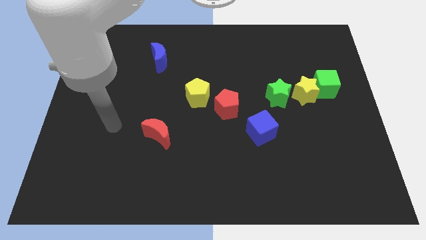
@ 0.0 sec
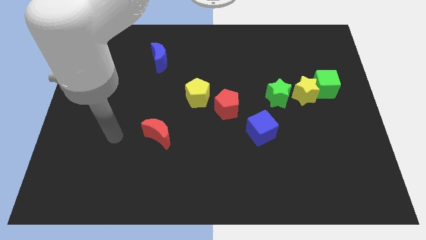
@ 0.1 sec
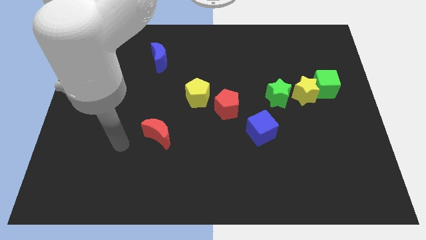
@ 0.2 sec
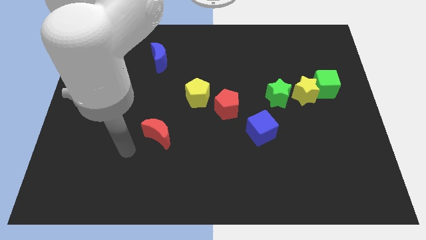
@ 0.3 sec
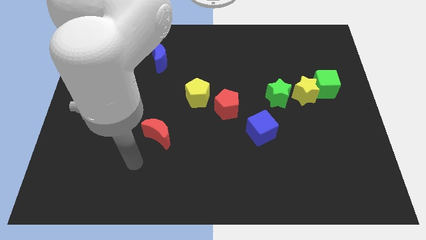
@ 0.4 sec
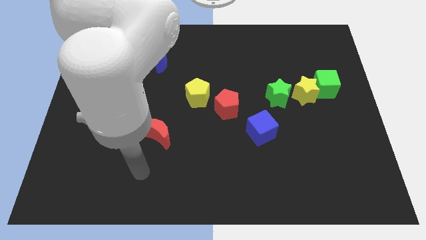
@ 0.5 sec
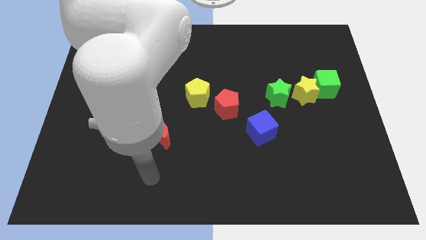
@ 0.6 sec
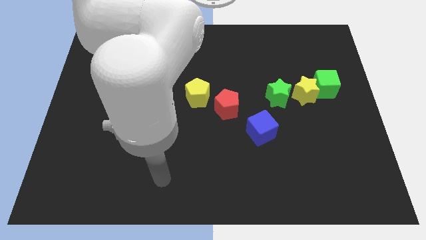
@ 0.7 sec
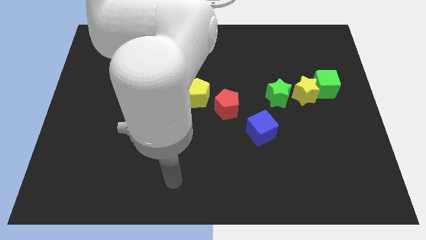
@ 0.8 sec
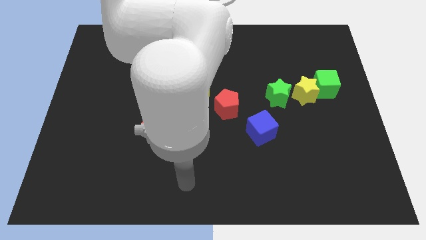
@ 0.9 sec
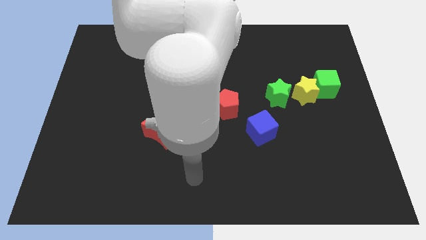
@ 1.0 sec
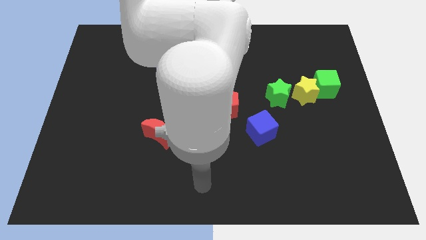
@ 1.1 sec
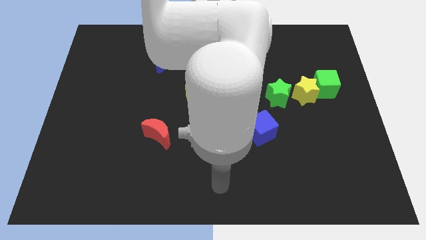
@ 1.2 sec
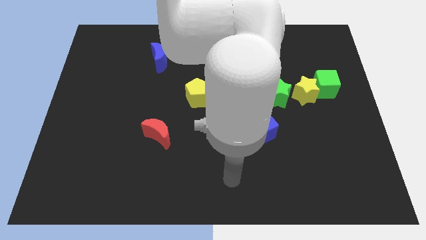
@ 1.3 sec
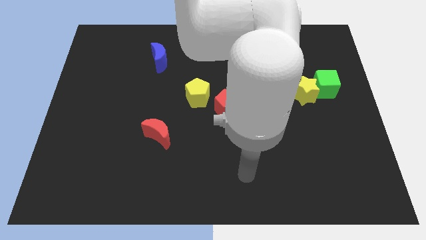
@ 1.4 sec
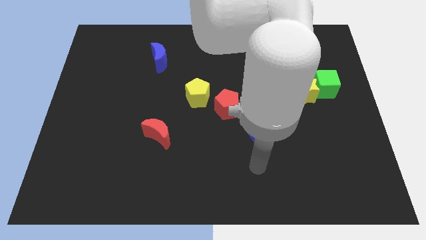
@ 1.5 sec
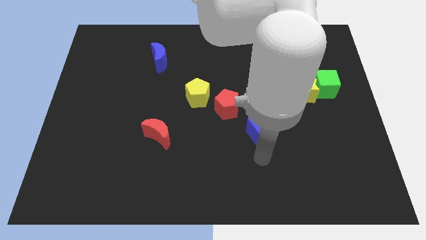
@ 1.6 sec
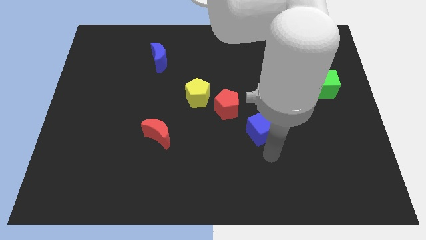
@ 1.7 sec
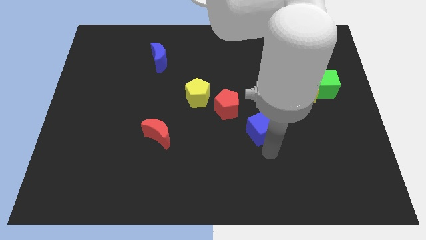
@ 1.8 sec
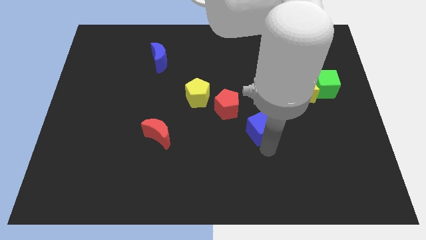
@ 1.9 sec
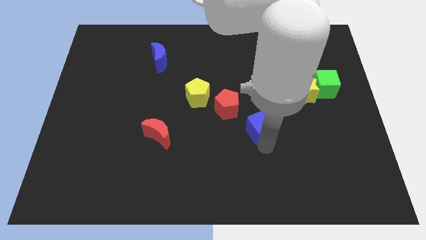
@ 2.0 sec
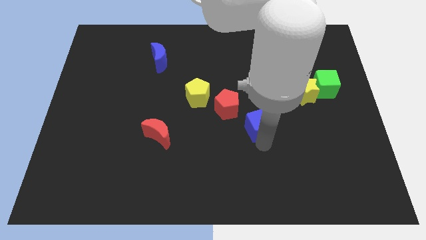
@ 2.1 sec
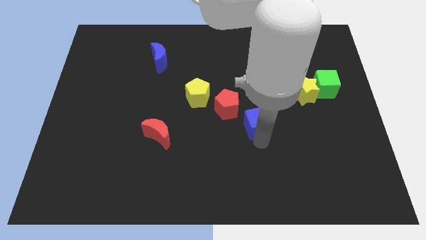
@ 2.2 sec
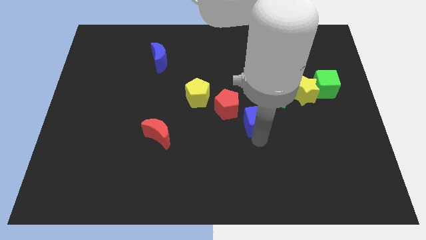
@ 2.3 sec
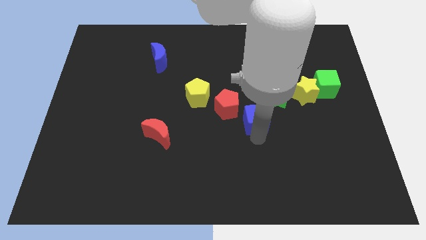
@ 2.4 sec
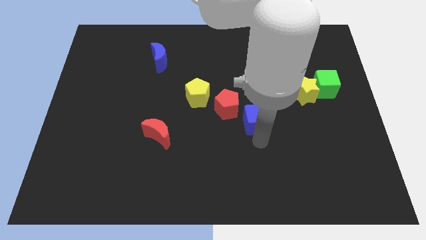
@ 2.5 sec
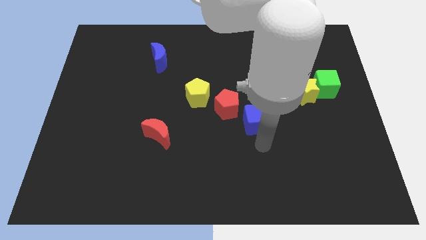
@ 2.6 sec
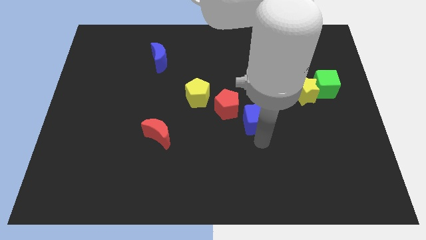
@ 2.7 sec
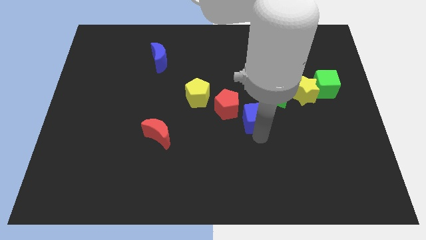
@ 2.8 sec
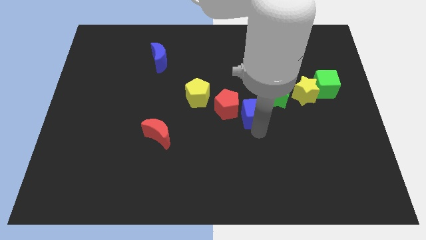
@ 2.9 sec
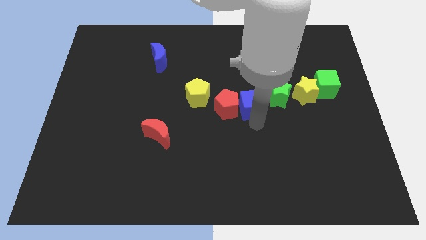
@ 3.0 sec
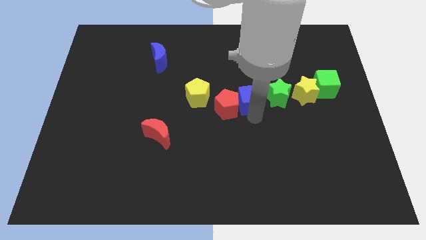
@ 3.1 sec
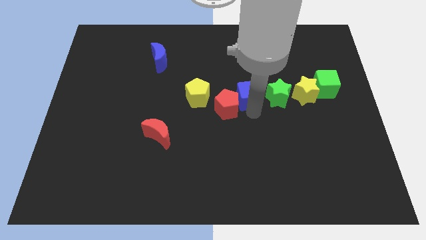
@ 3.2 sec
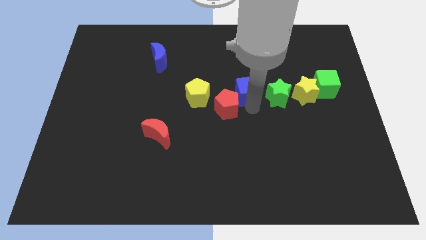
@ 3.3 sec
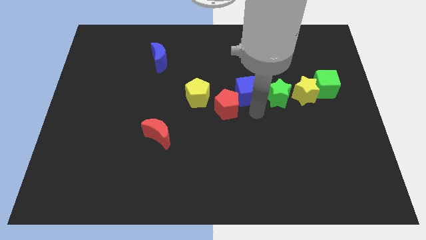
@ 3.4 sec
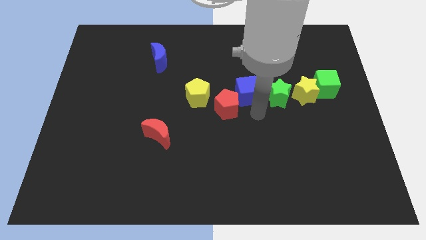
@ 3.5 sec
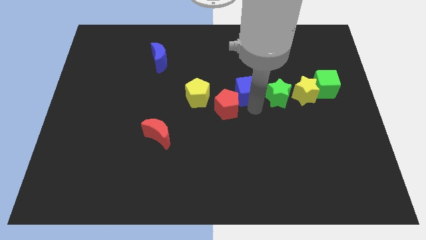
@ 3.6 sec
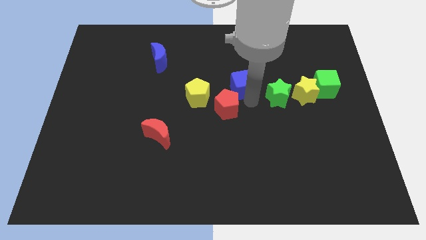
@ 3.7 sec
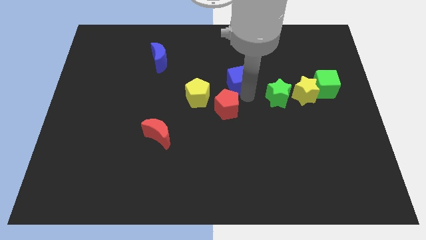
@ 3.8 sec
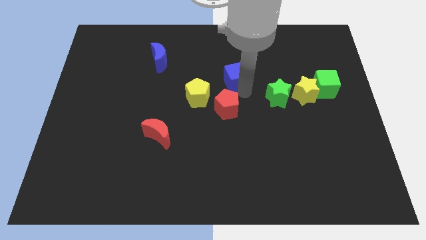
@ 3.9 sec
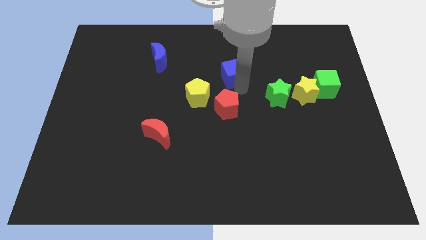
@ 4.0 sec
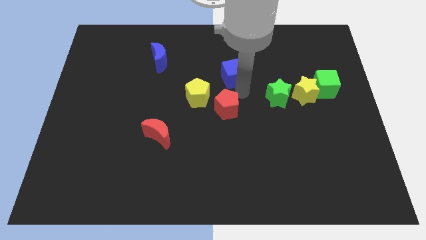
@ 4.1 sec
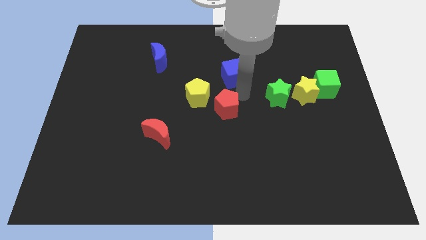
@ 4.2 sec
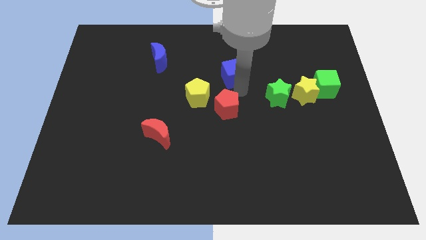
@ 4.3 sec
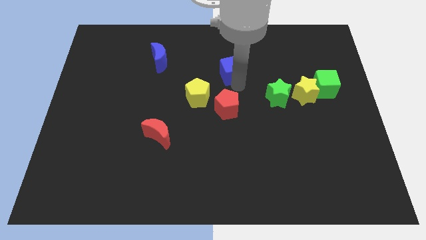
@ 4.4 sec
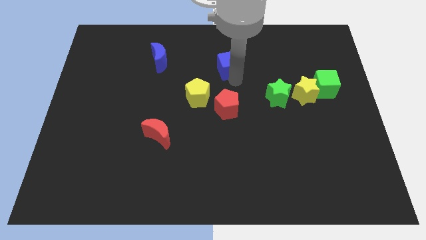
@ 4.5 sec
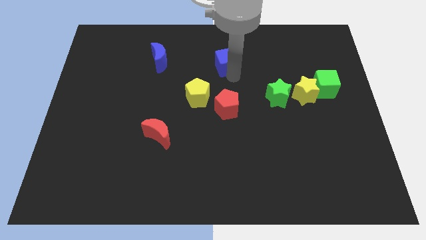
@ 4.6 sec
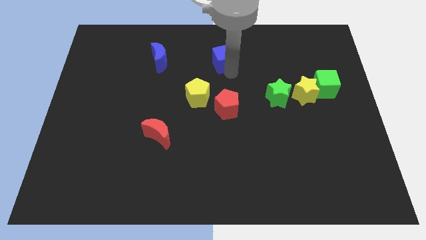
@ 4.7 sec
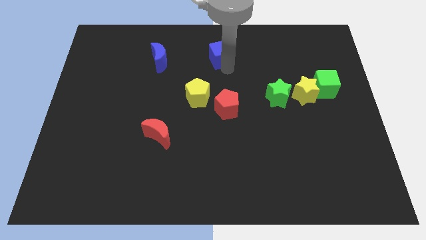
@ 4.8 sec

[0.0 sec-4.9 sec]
slide the blue cube to the towards your base

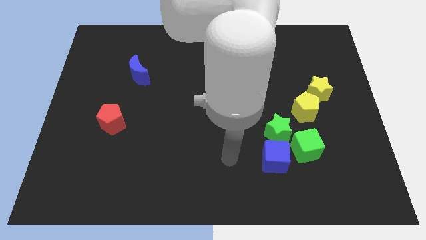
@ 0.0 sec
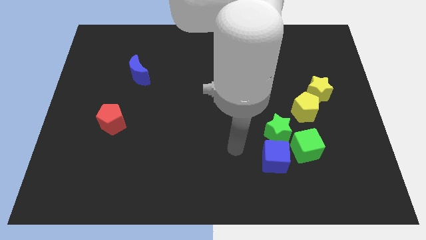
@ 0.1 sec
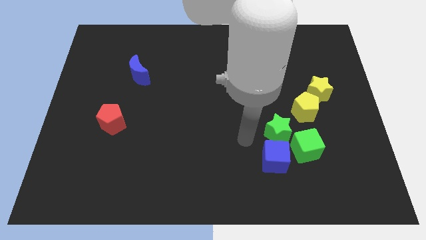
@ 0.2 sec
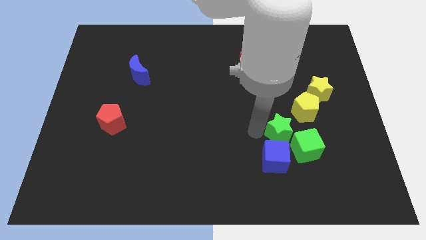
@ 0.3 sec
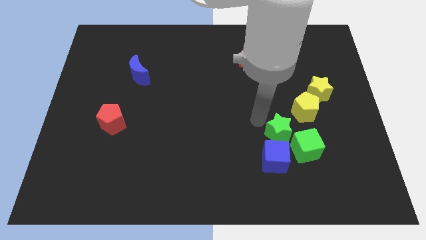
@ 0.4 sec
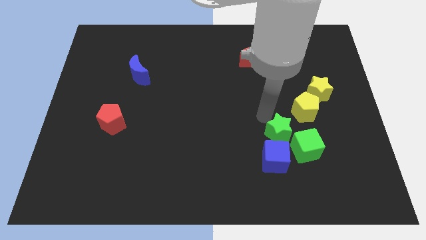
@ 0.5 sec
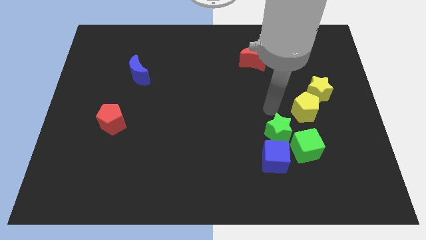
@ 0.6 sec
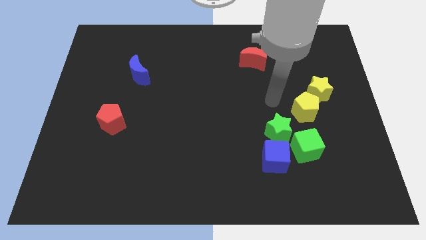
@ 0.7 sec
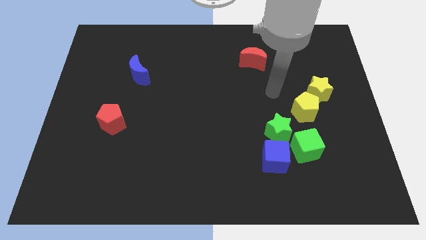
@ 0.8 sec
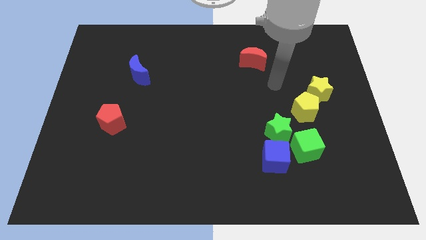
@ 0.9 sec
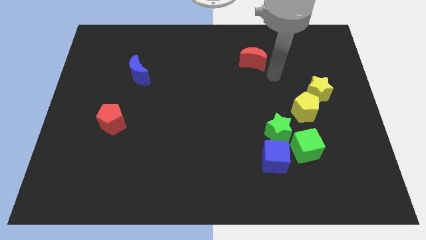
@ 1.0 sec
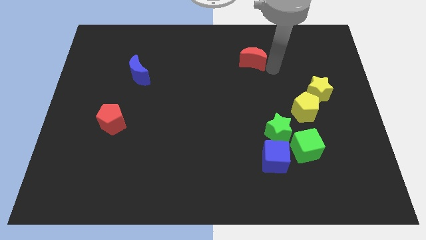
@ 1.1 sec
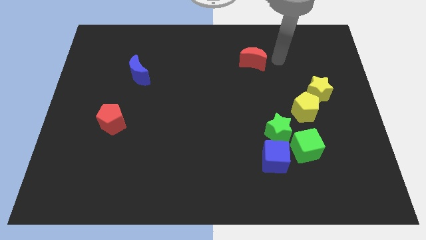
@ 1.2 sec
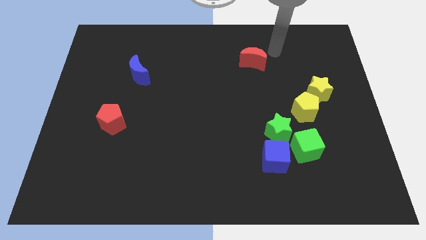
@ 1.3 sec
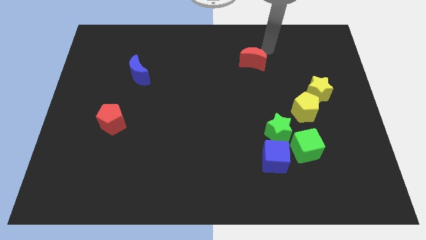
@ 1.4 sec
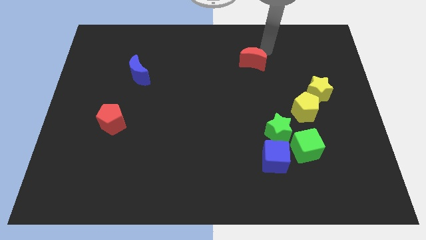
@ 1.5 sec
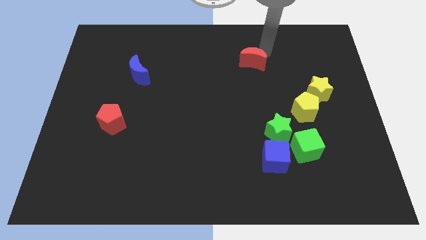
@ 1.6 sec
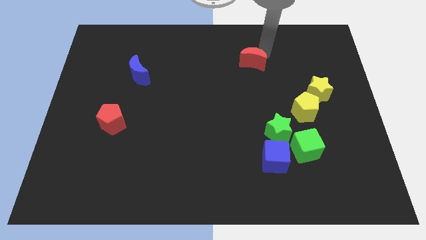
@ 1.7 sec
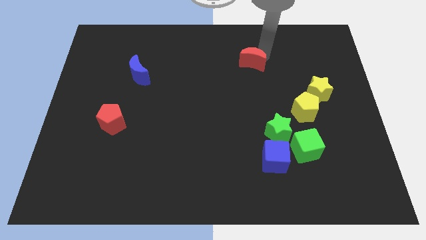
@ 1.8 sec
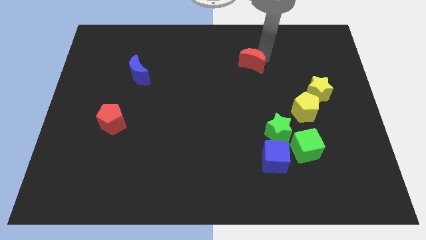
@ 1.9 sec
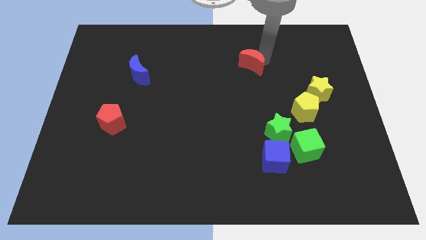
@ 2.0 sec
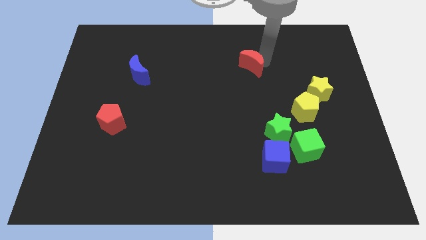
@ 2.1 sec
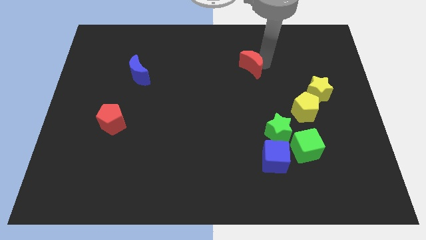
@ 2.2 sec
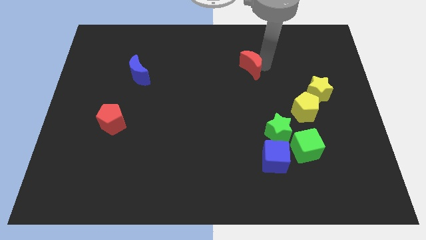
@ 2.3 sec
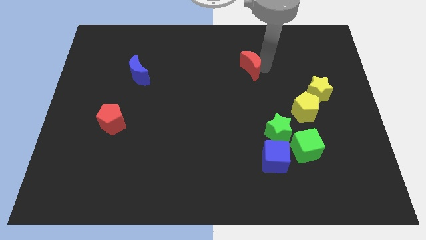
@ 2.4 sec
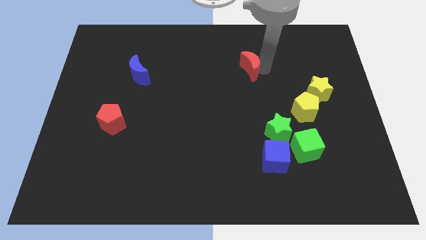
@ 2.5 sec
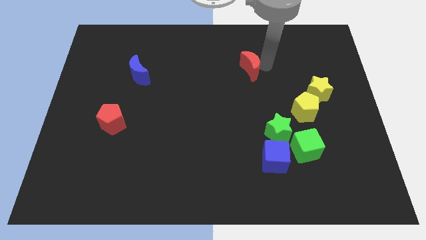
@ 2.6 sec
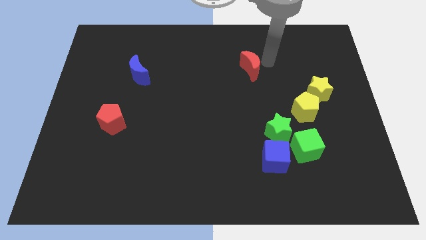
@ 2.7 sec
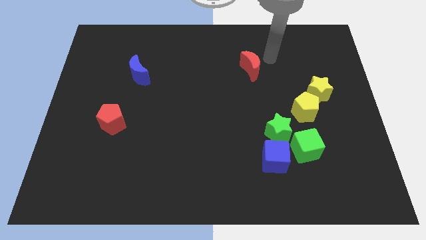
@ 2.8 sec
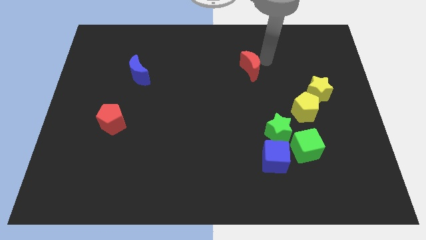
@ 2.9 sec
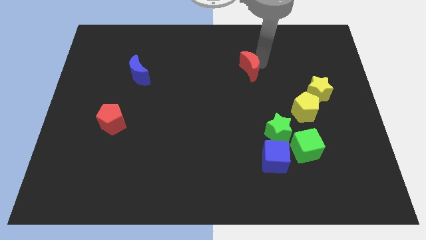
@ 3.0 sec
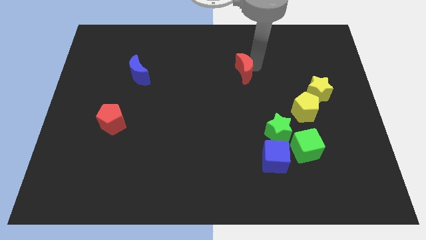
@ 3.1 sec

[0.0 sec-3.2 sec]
move the red moon to the middle
